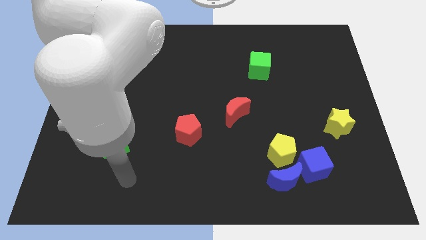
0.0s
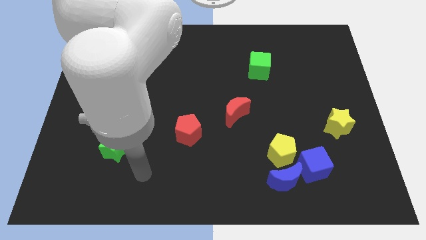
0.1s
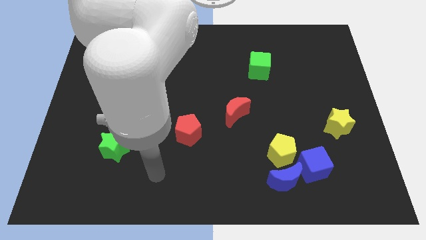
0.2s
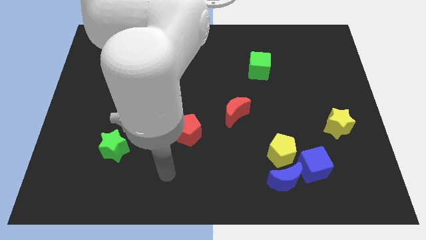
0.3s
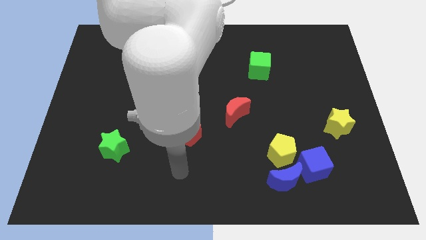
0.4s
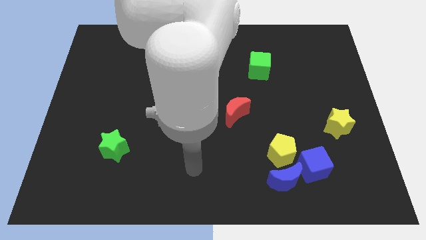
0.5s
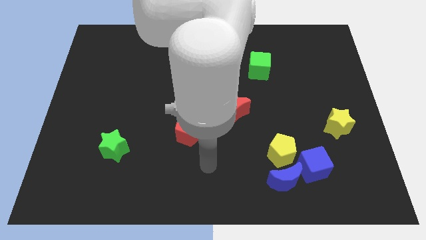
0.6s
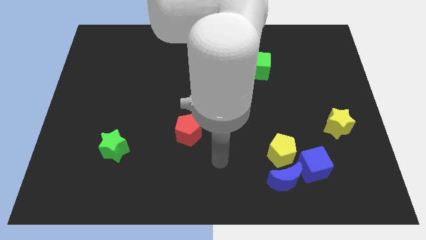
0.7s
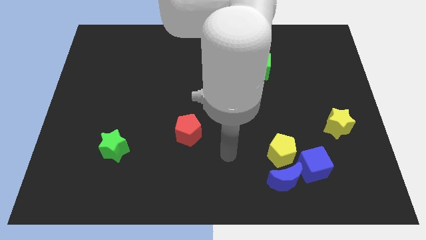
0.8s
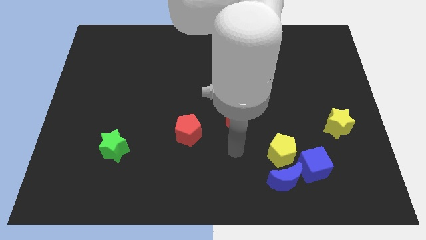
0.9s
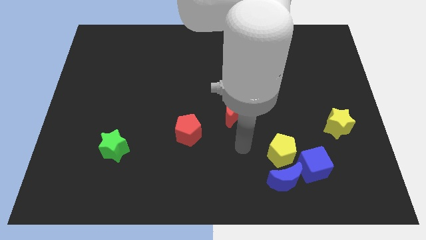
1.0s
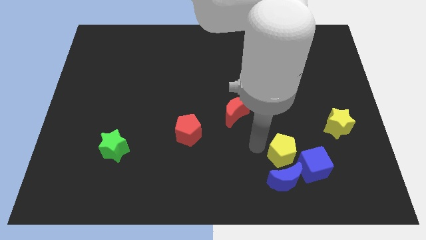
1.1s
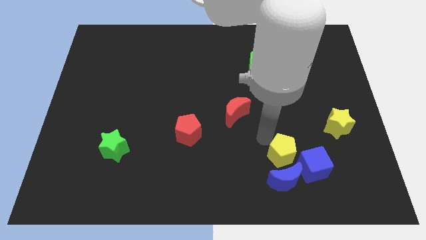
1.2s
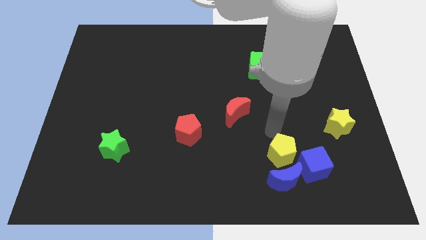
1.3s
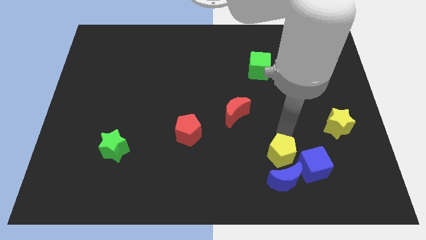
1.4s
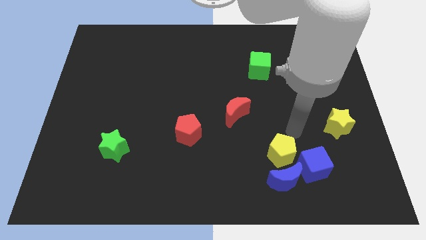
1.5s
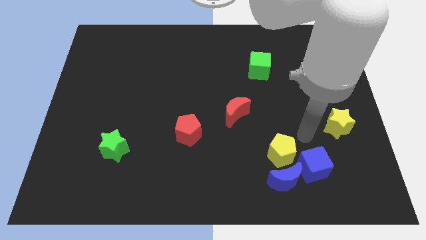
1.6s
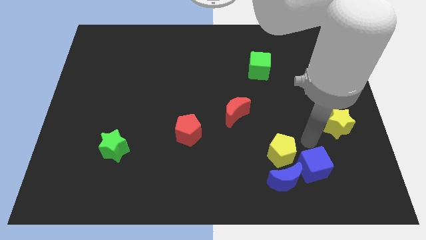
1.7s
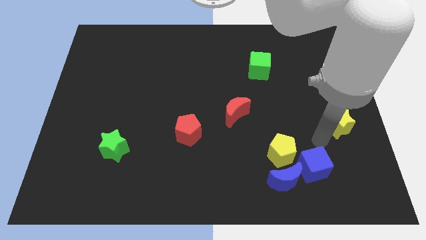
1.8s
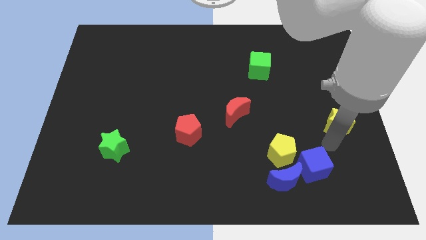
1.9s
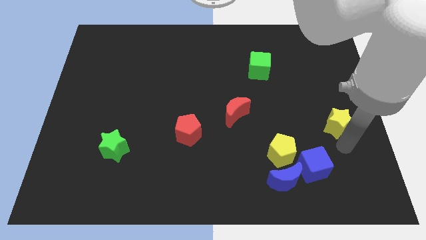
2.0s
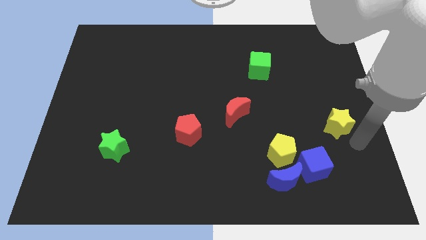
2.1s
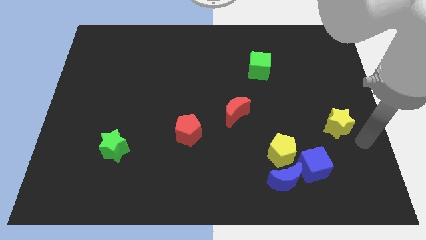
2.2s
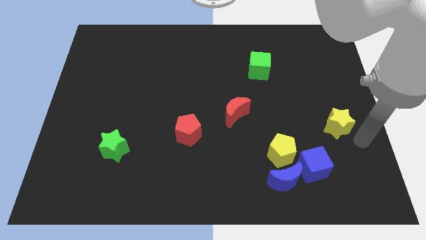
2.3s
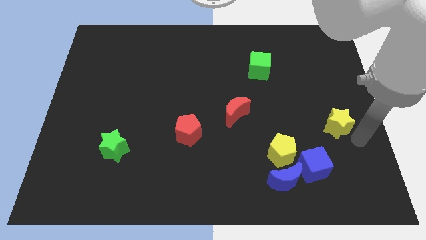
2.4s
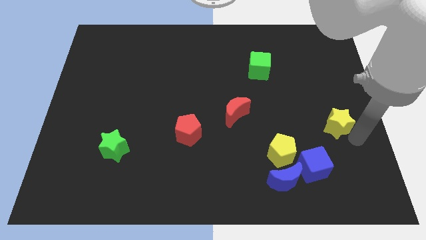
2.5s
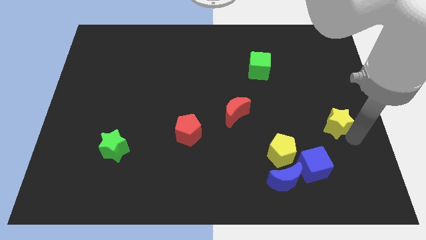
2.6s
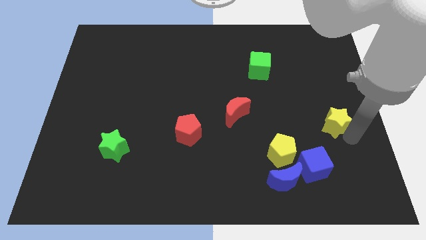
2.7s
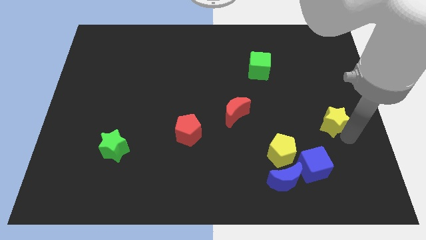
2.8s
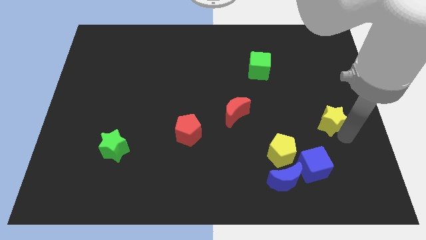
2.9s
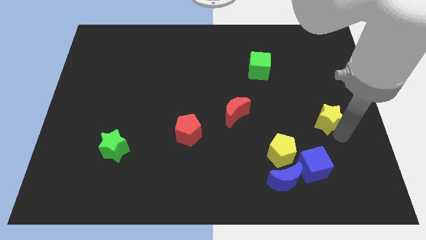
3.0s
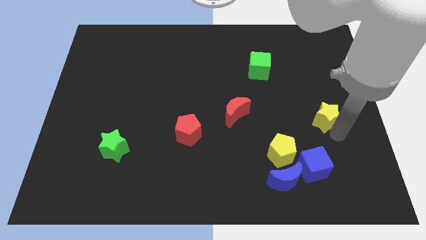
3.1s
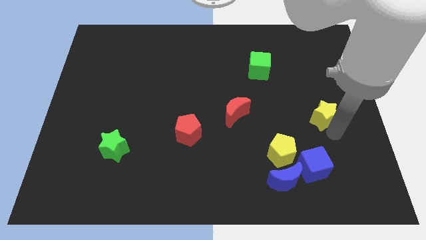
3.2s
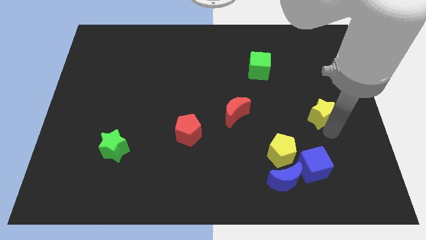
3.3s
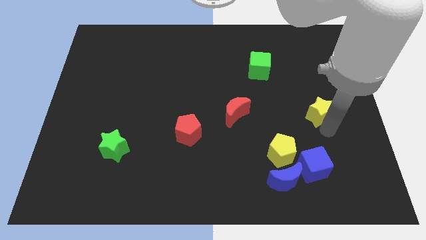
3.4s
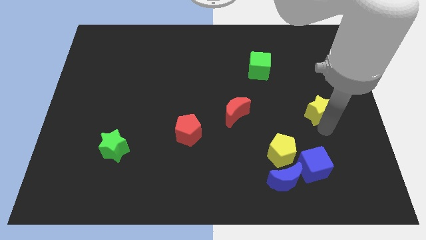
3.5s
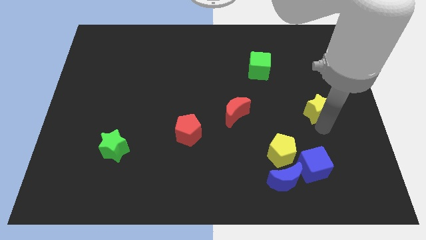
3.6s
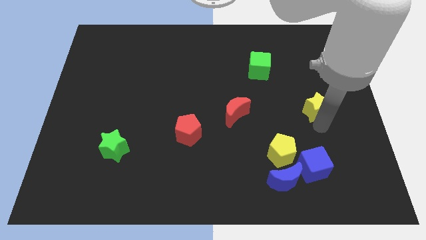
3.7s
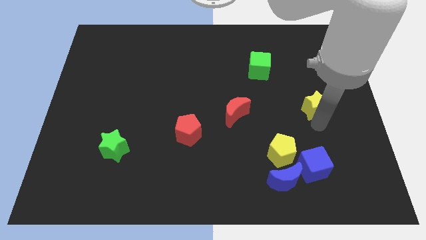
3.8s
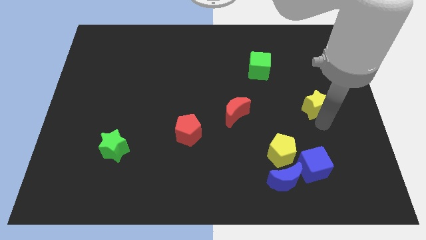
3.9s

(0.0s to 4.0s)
move the yellow star slightly diagonally up and to the left

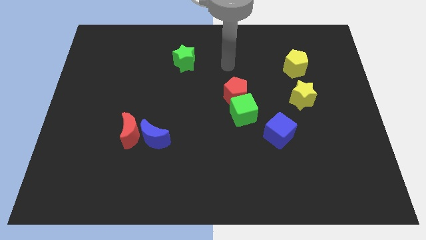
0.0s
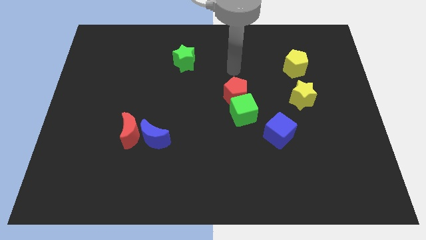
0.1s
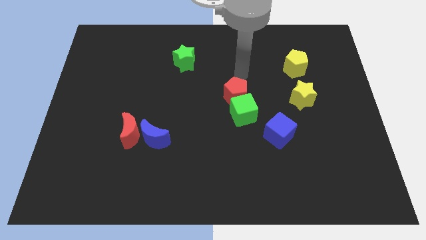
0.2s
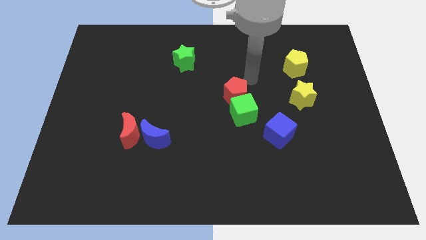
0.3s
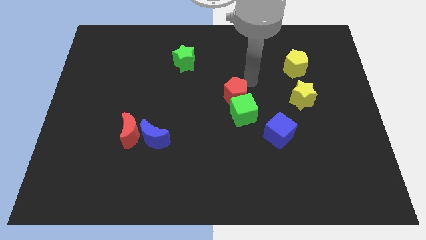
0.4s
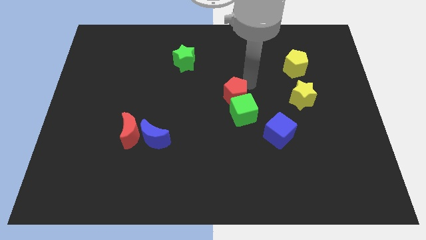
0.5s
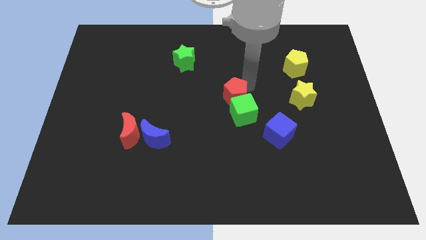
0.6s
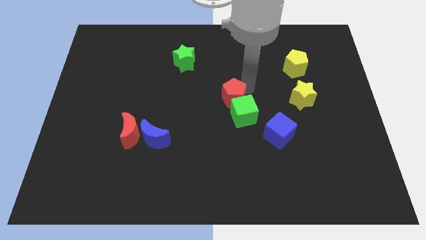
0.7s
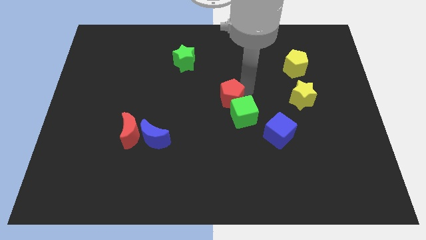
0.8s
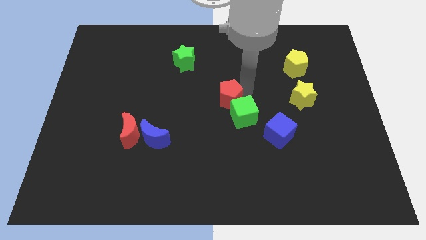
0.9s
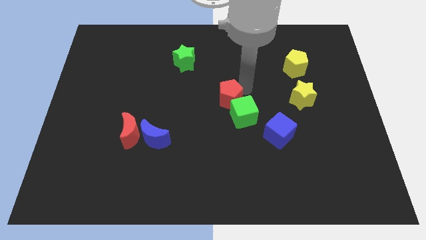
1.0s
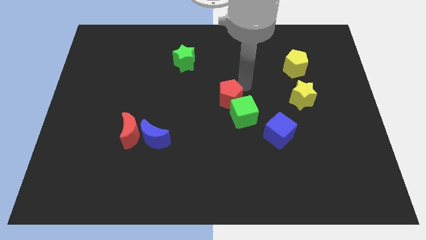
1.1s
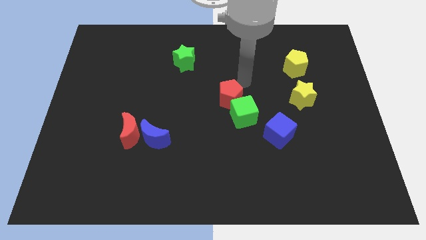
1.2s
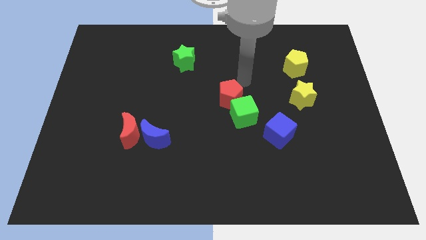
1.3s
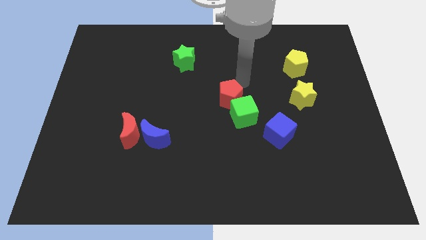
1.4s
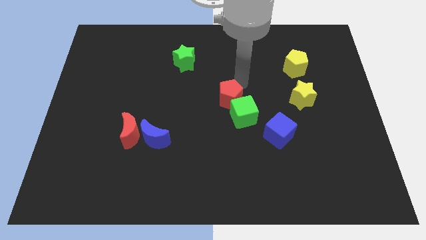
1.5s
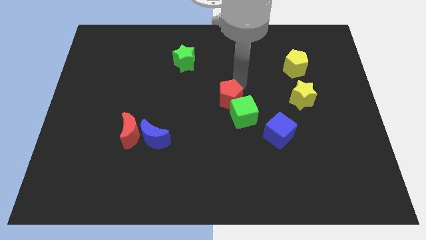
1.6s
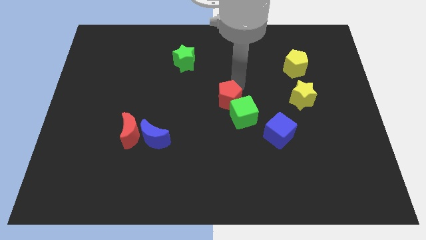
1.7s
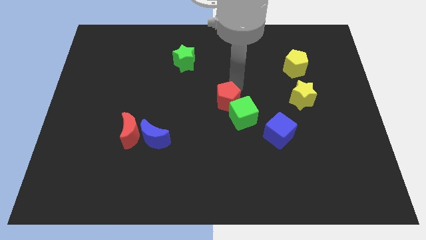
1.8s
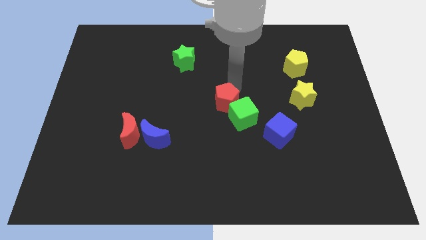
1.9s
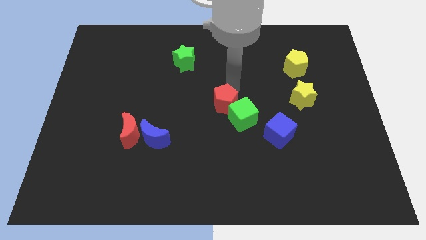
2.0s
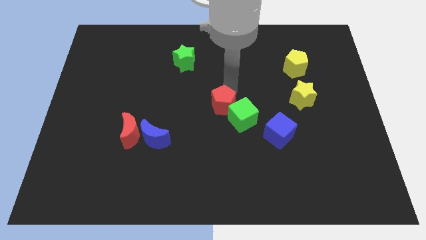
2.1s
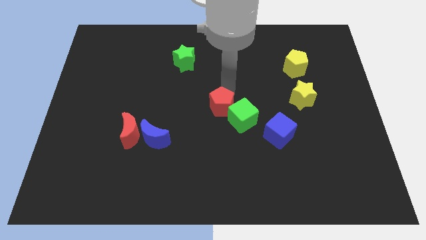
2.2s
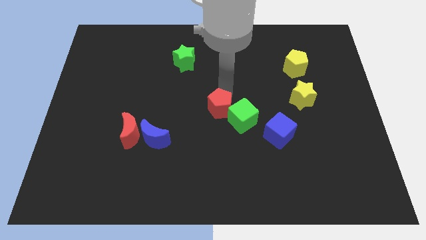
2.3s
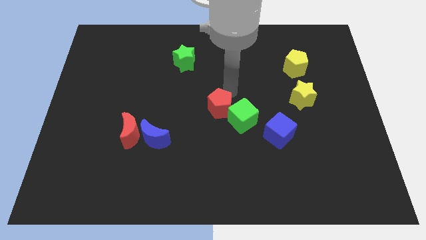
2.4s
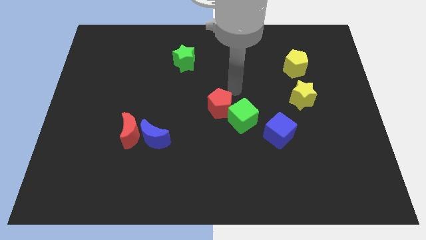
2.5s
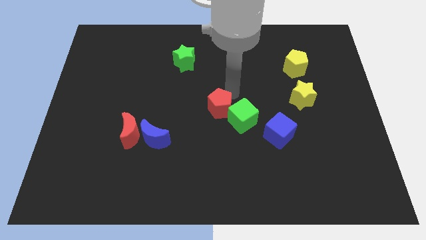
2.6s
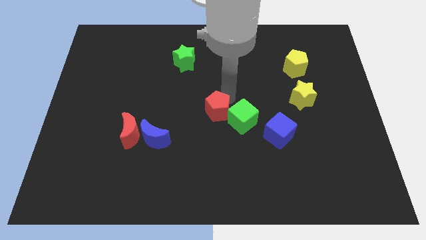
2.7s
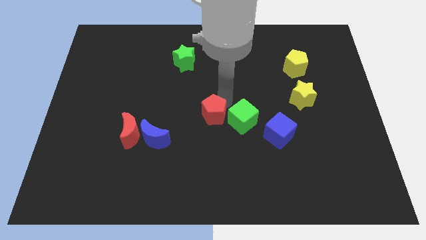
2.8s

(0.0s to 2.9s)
move the red pentagon a little bit diagonally down and left

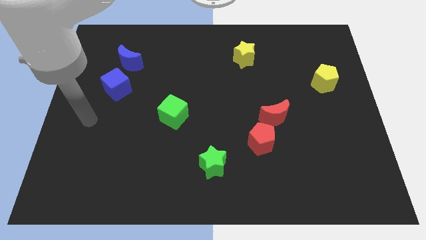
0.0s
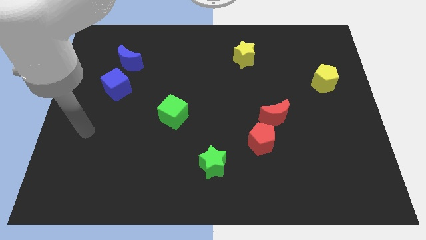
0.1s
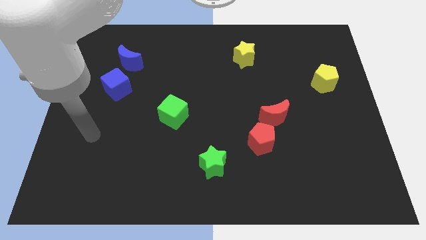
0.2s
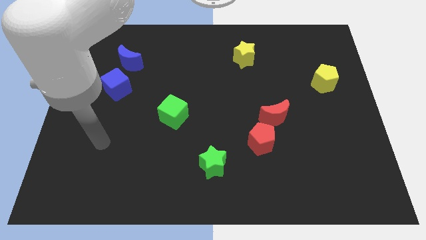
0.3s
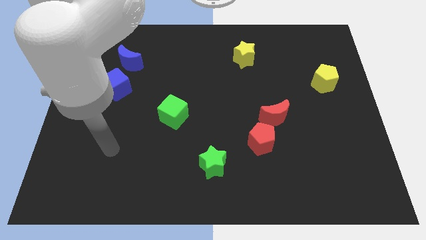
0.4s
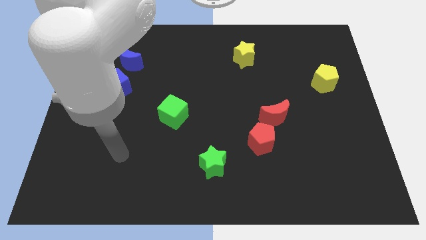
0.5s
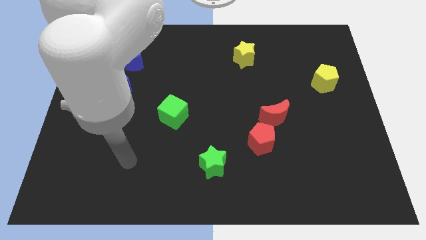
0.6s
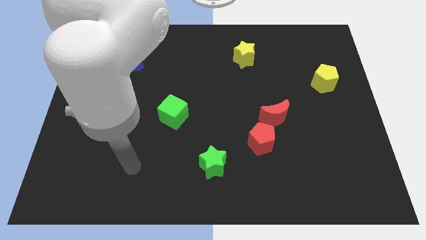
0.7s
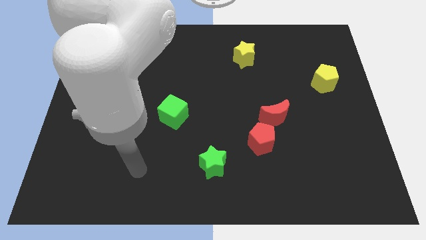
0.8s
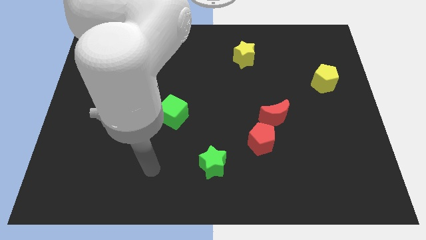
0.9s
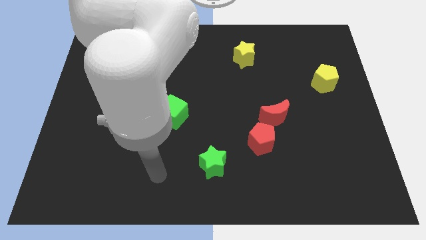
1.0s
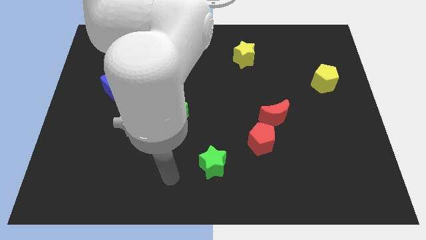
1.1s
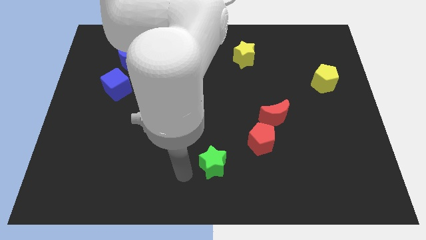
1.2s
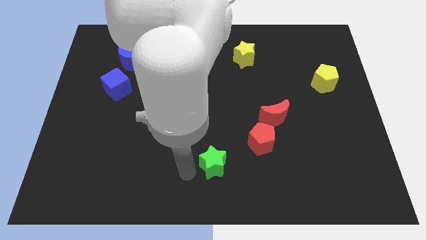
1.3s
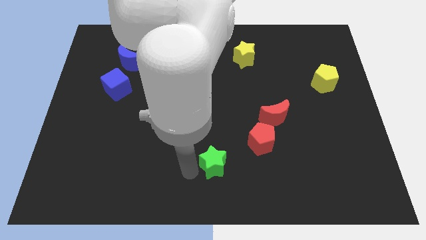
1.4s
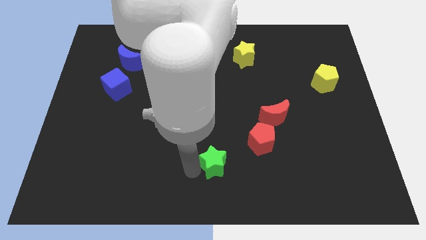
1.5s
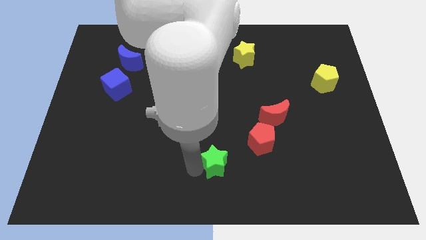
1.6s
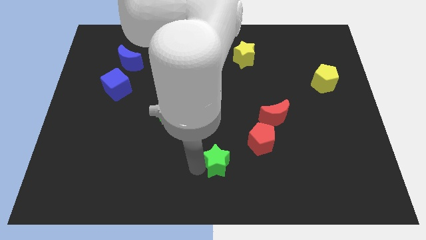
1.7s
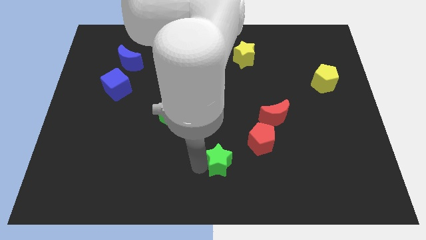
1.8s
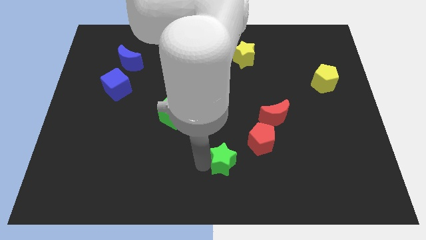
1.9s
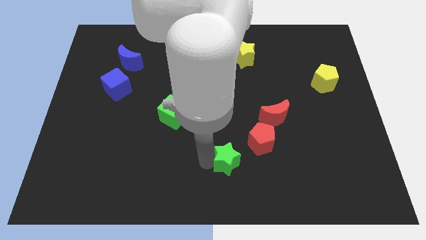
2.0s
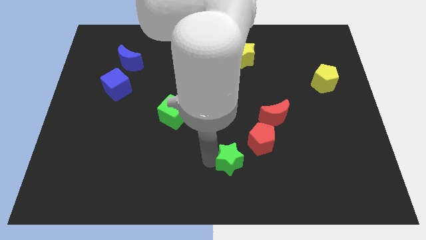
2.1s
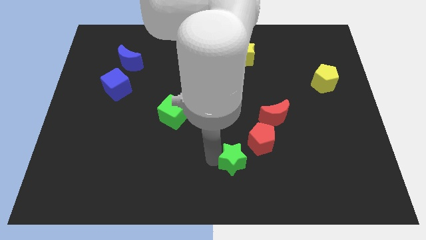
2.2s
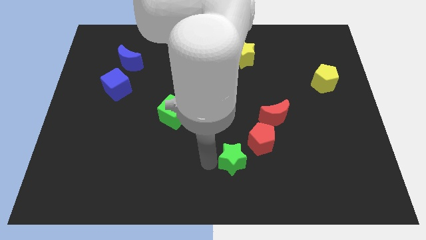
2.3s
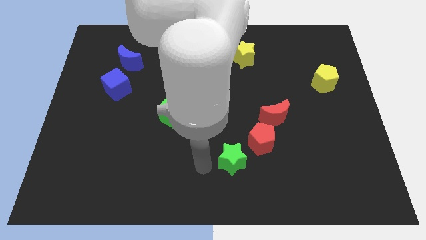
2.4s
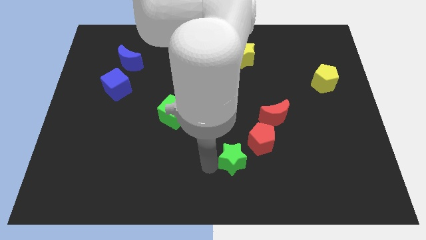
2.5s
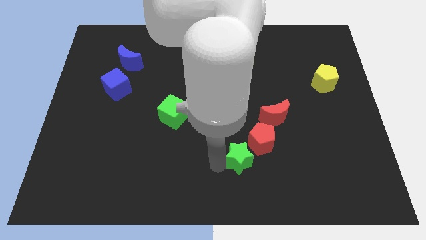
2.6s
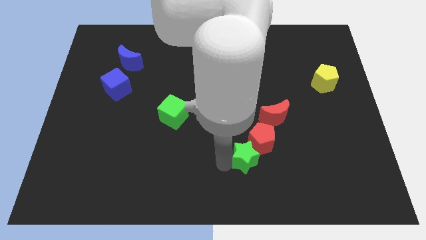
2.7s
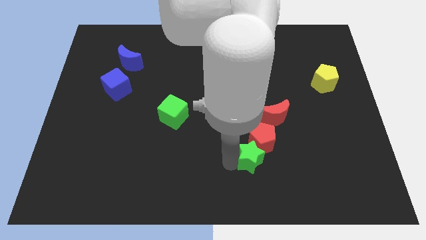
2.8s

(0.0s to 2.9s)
slide the green star to the right a little
